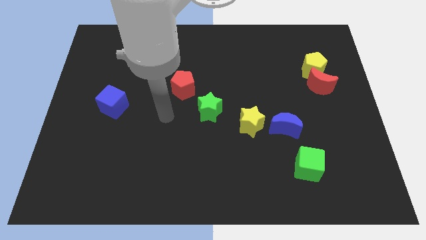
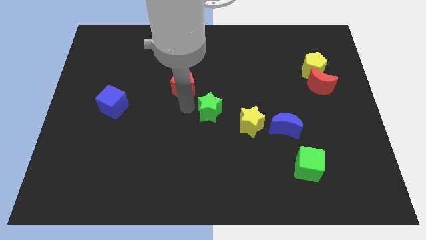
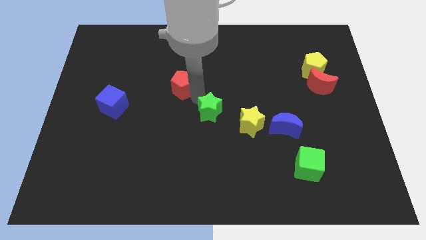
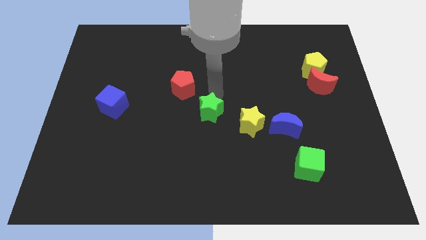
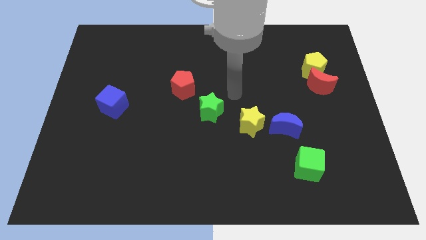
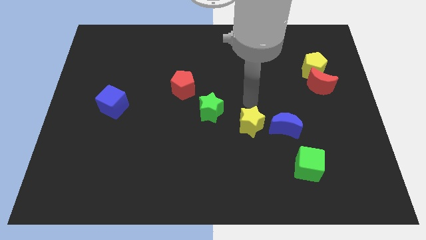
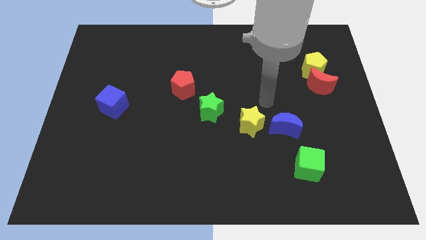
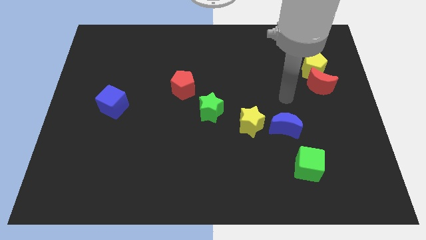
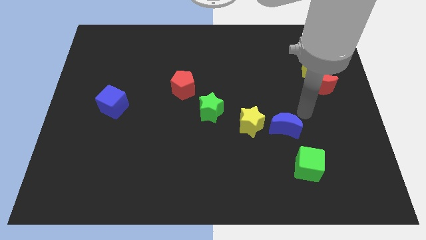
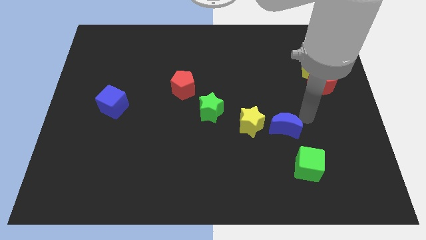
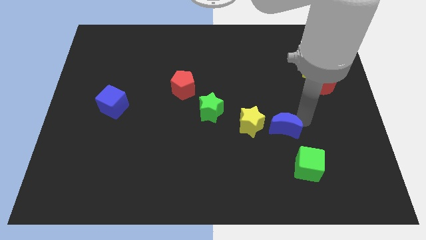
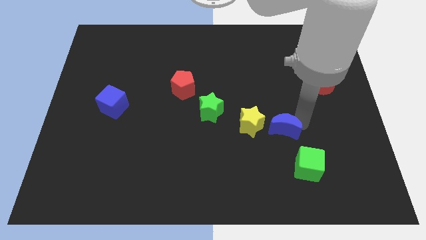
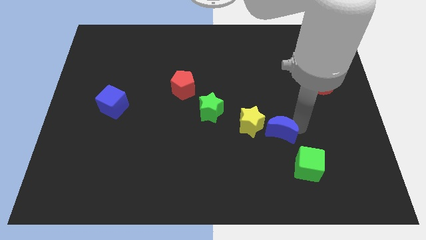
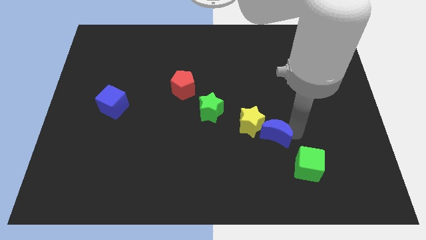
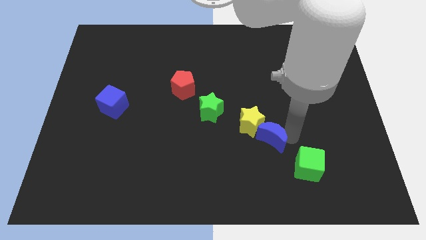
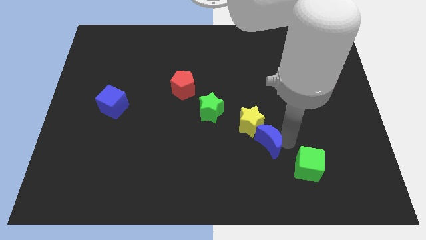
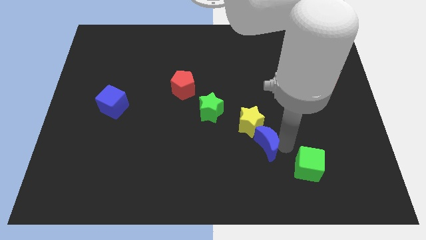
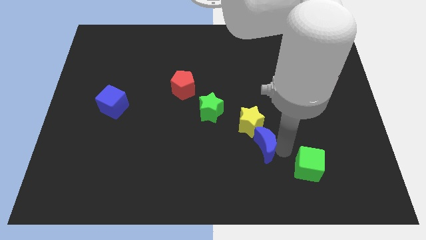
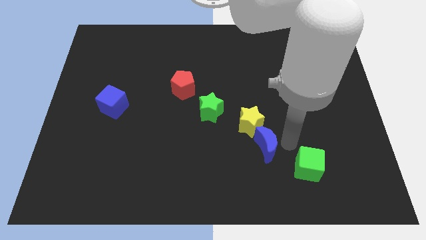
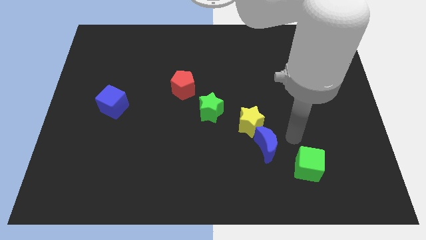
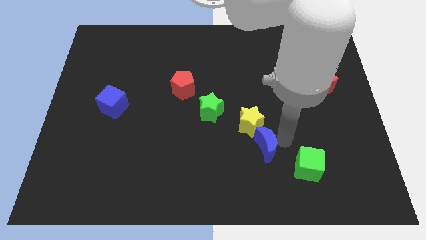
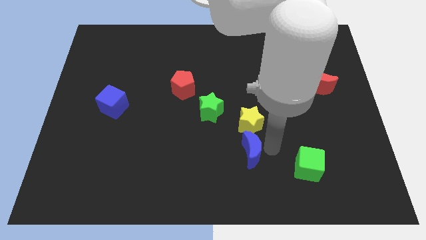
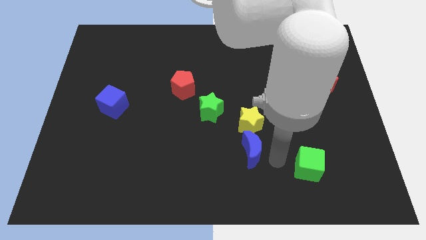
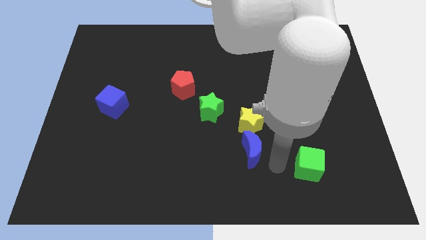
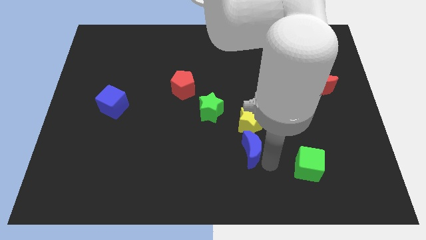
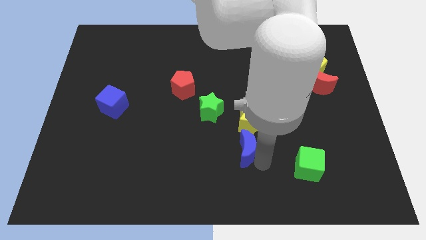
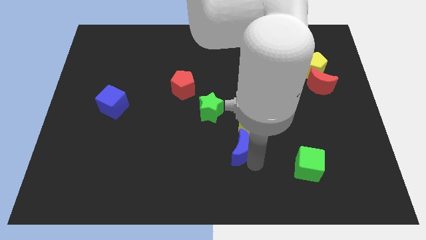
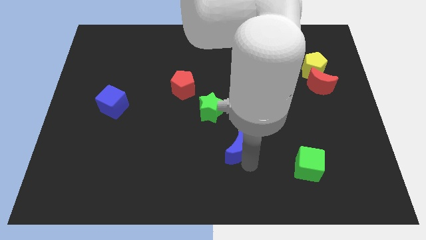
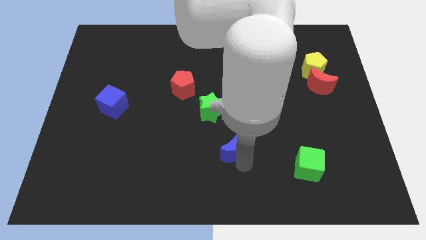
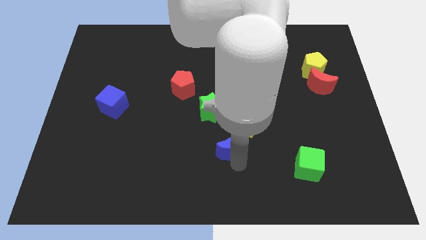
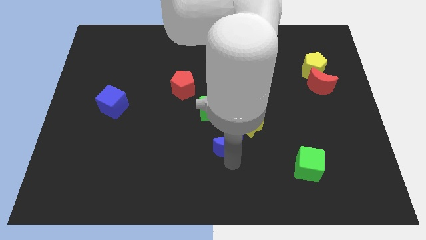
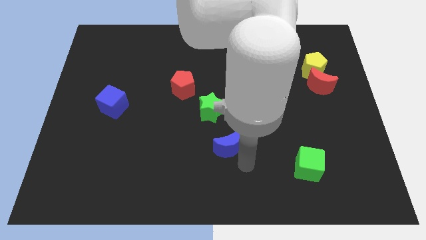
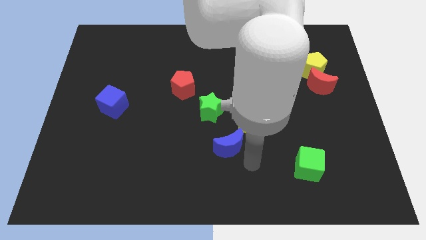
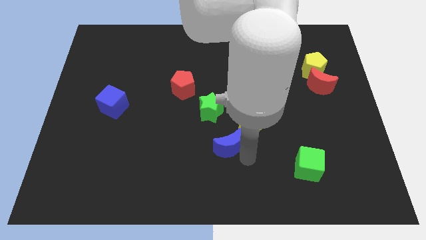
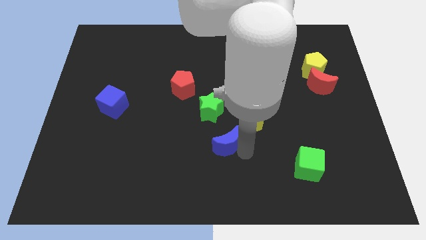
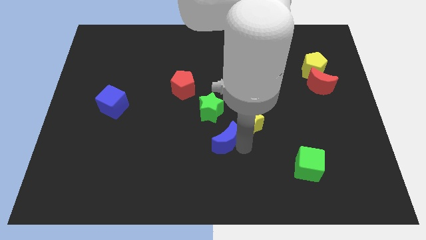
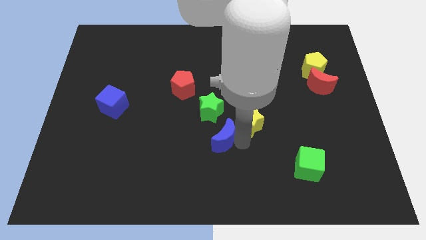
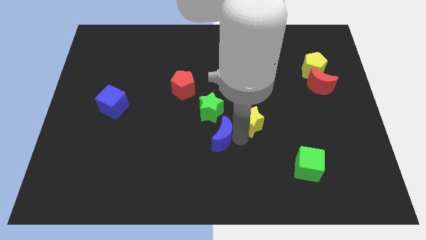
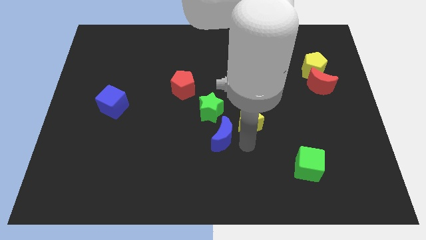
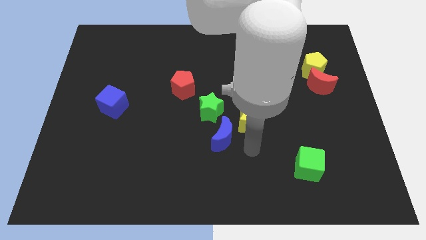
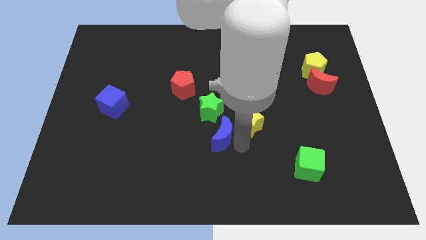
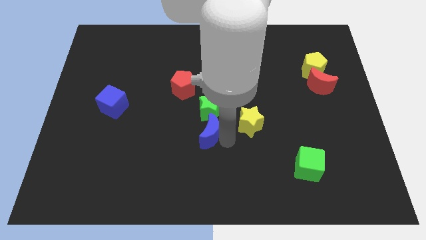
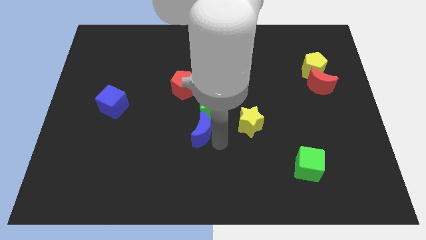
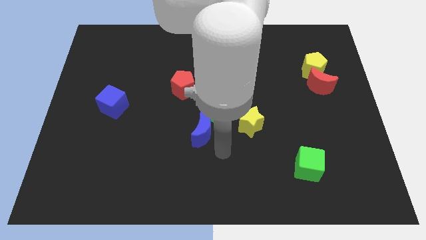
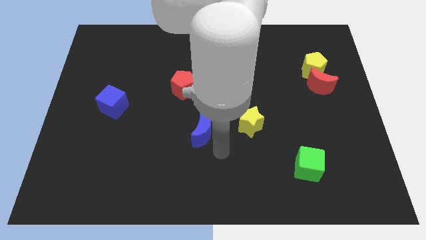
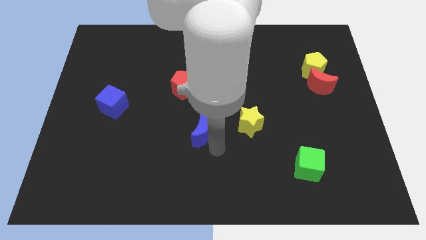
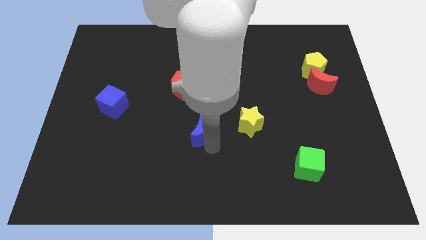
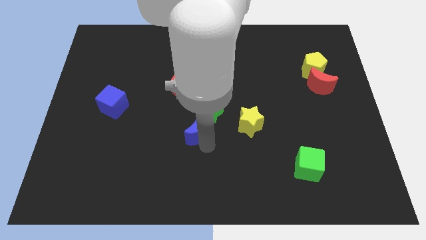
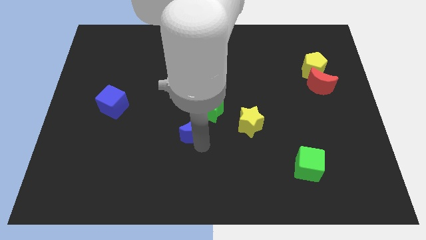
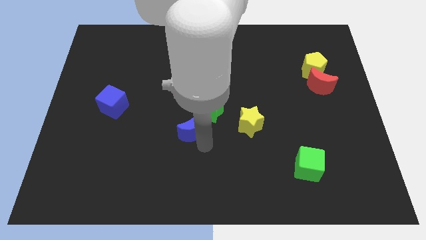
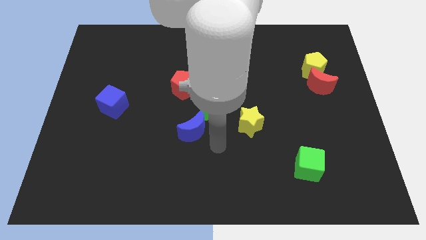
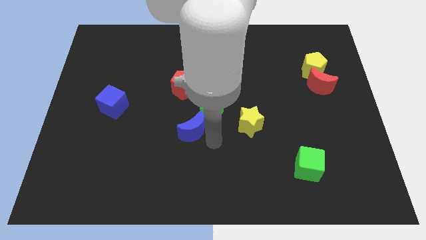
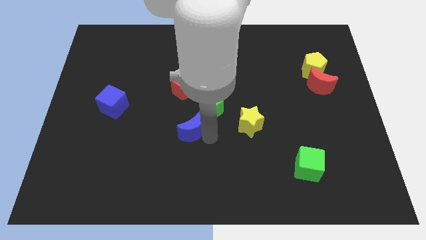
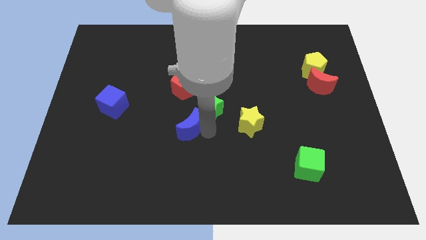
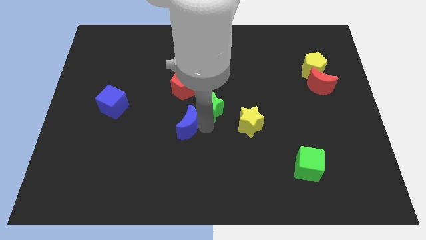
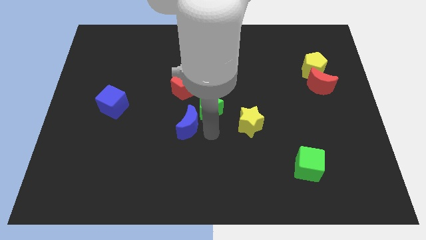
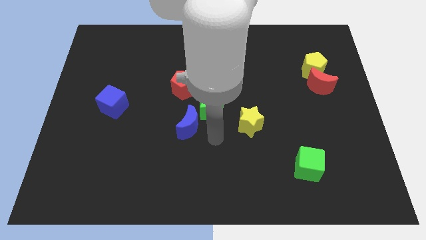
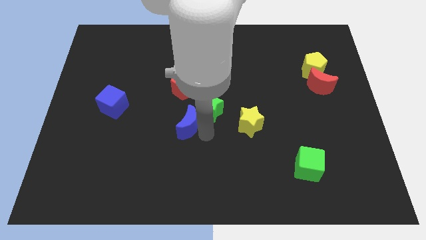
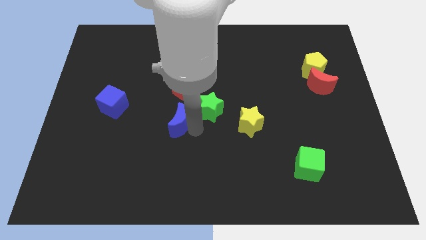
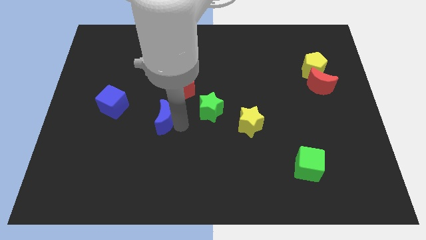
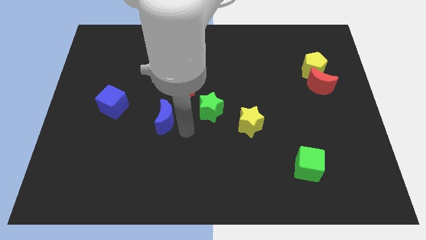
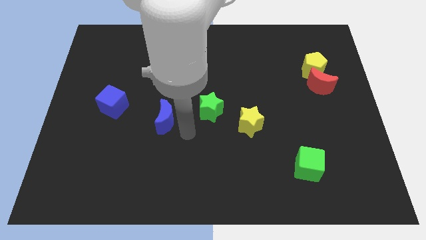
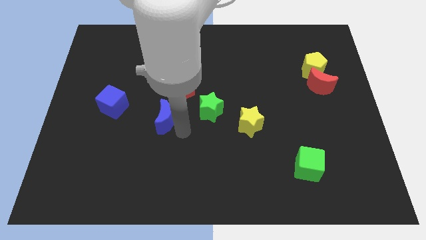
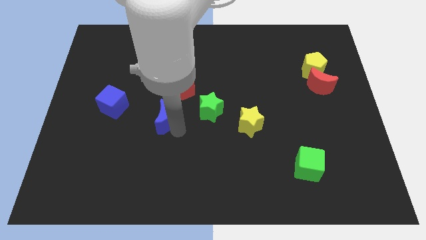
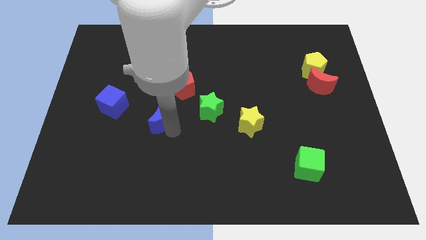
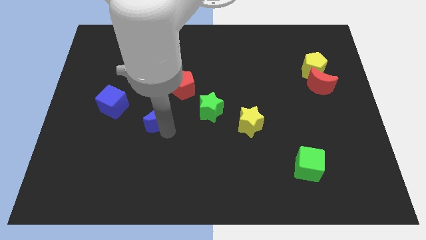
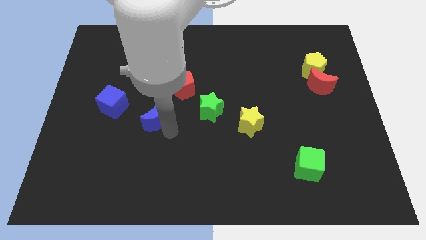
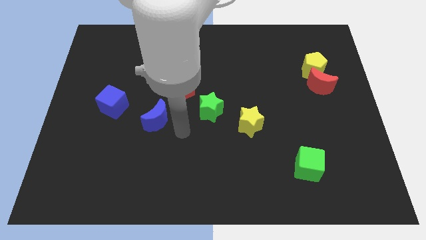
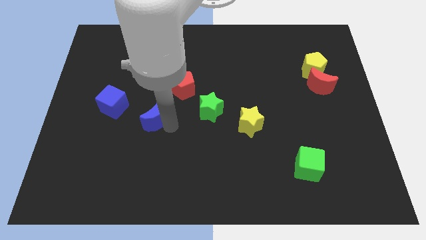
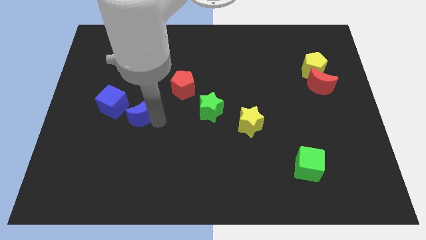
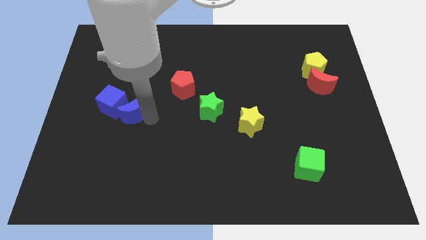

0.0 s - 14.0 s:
push the blue moon next to the blue cube

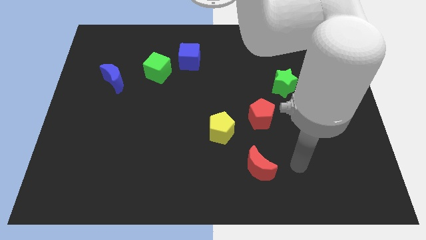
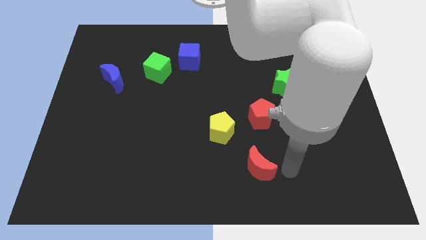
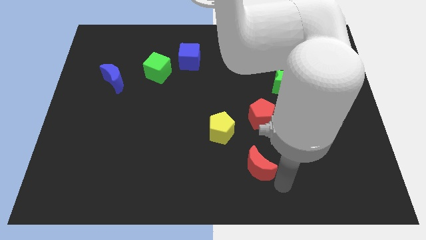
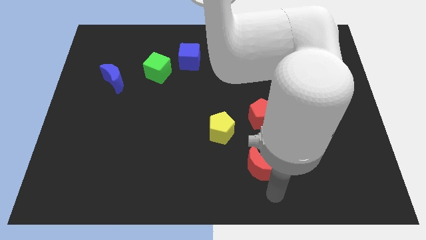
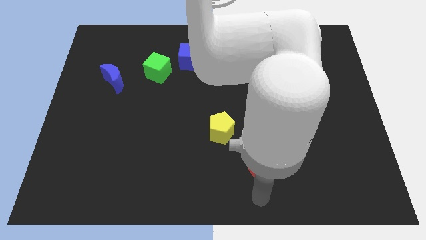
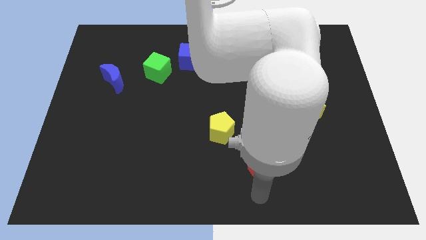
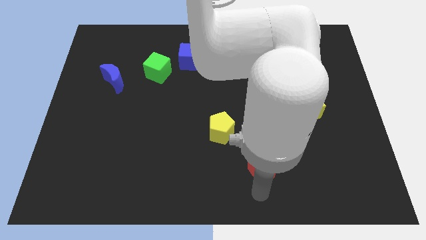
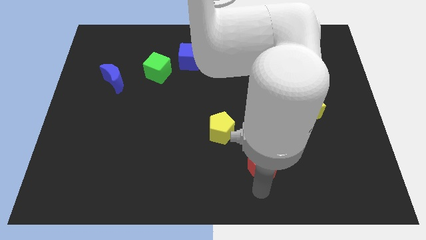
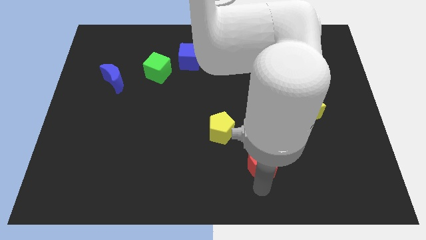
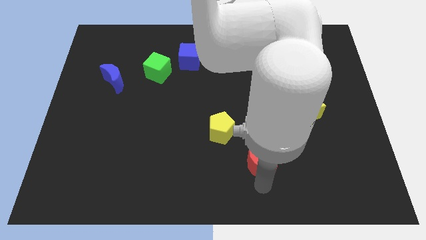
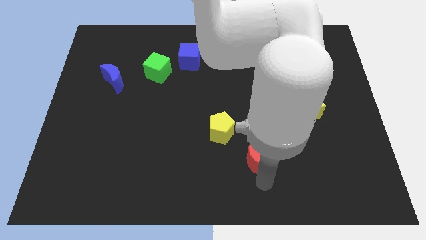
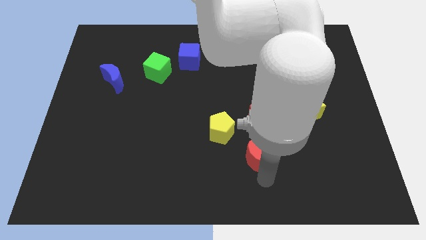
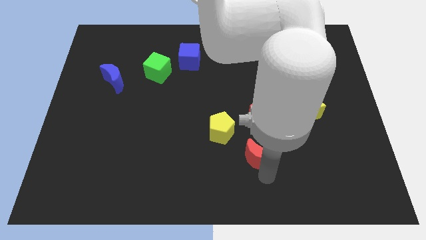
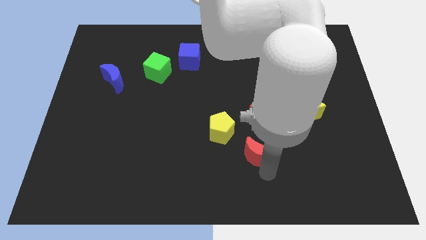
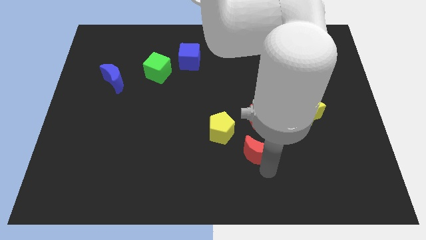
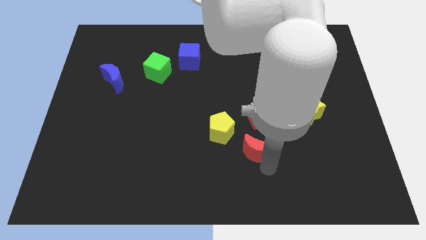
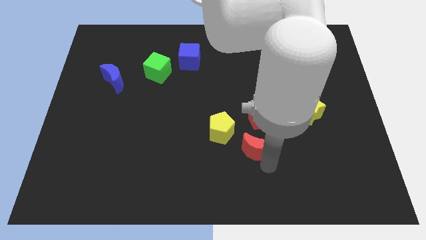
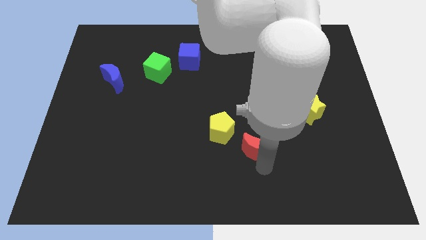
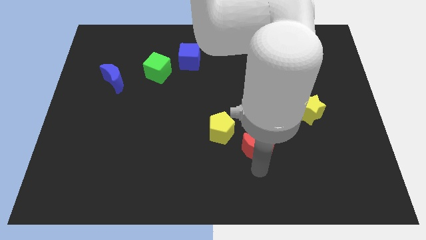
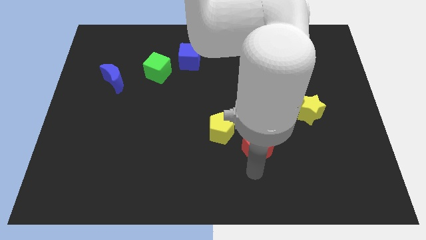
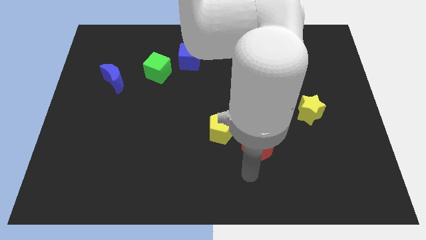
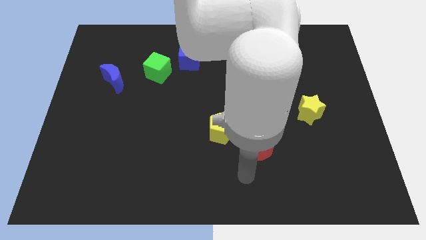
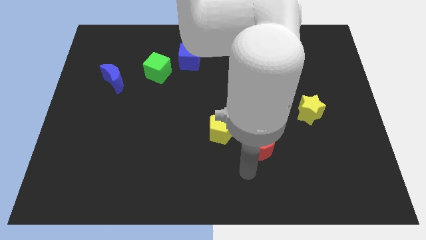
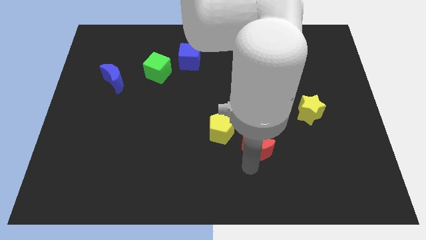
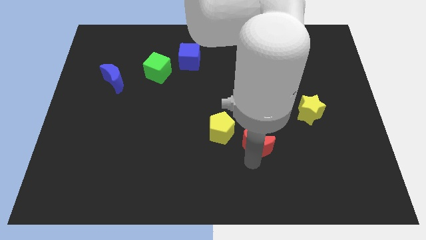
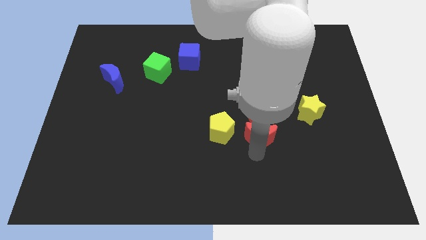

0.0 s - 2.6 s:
push the red moon to the red pentagon
